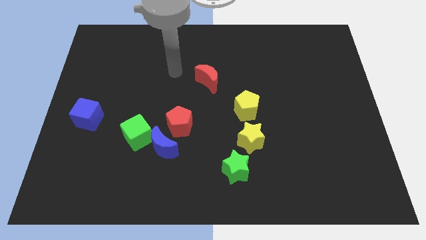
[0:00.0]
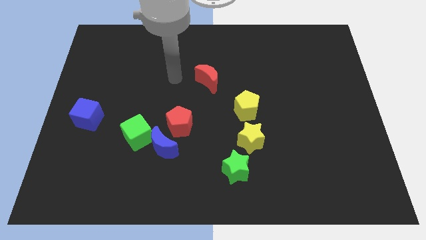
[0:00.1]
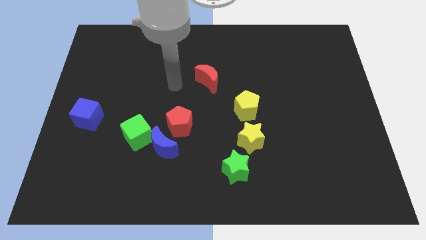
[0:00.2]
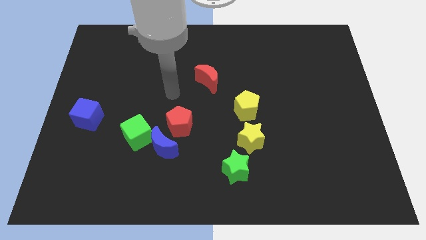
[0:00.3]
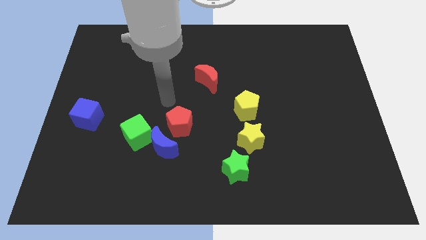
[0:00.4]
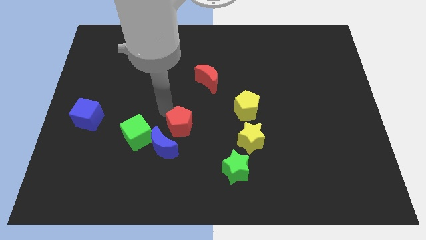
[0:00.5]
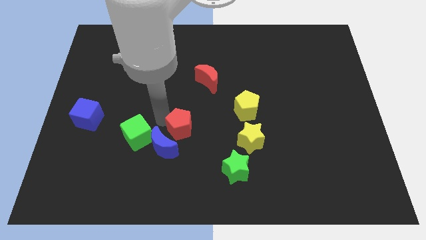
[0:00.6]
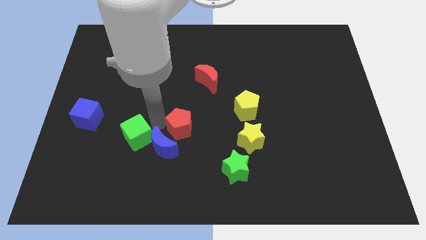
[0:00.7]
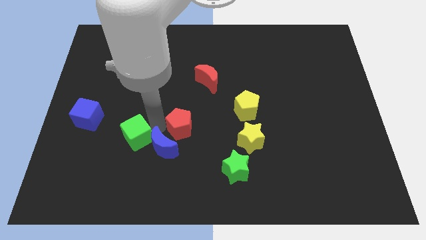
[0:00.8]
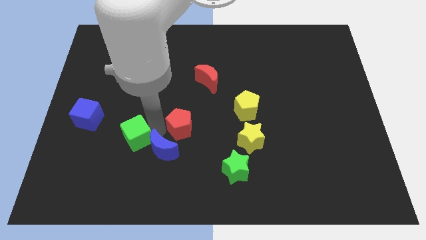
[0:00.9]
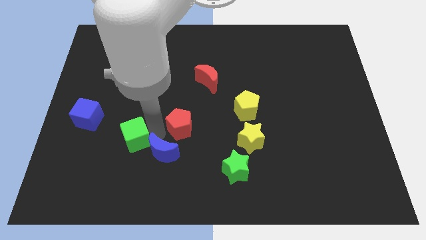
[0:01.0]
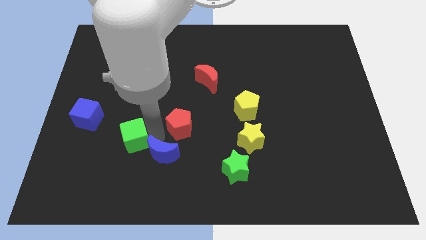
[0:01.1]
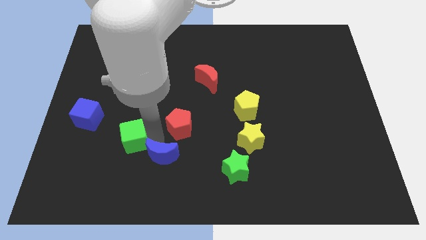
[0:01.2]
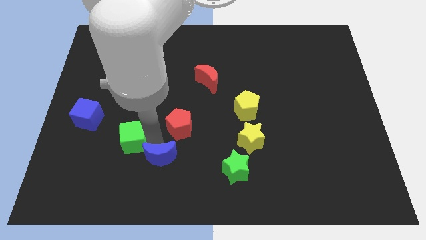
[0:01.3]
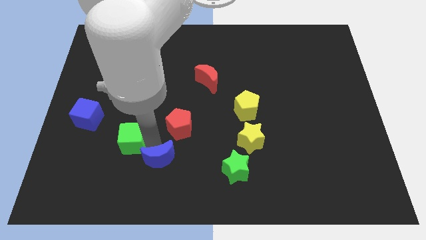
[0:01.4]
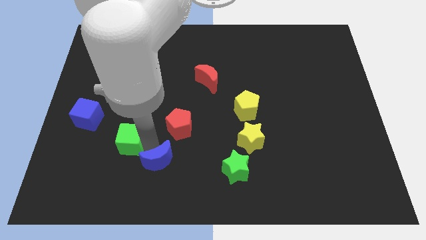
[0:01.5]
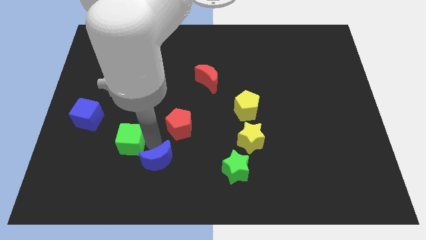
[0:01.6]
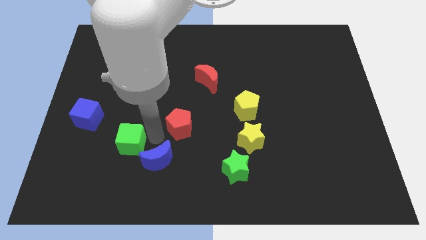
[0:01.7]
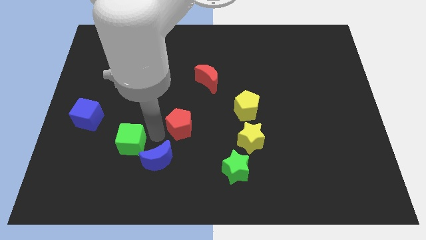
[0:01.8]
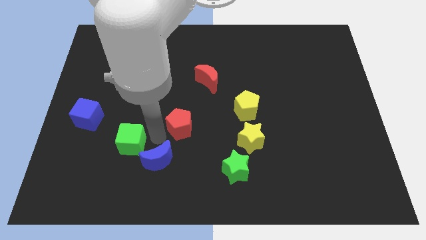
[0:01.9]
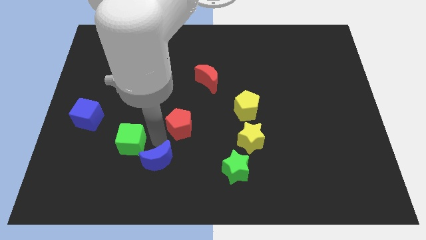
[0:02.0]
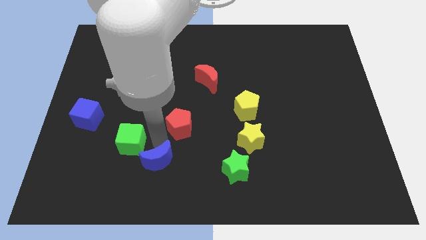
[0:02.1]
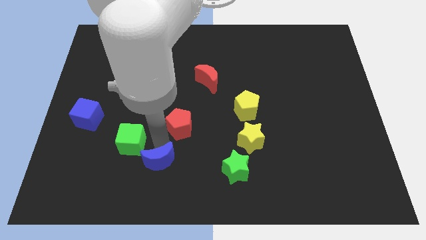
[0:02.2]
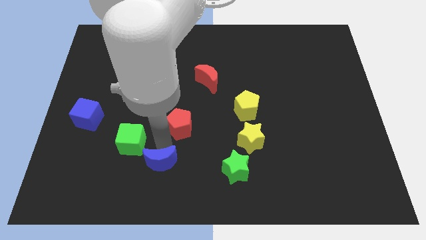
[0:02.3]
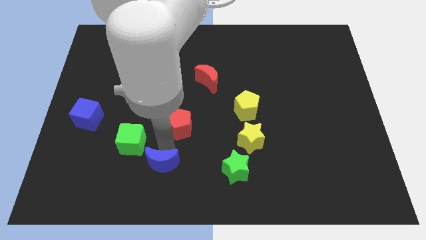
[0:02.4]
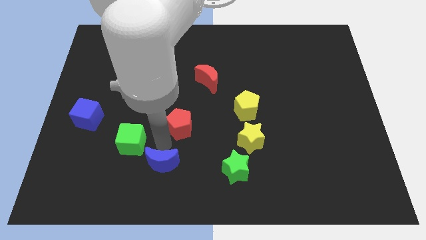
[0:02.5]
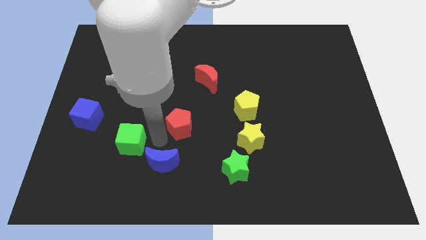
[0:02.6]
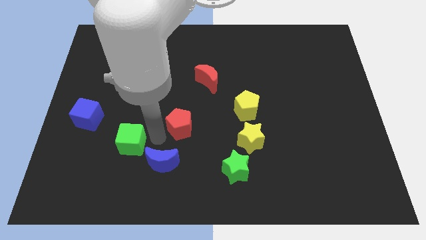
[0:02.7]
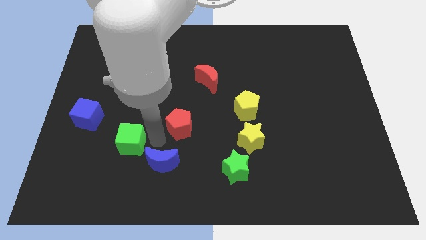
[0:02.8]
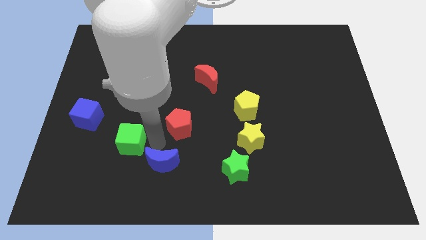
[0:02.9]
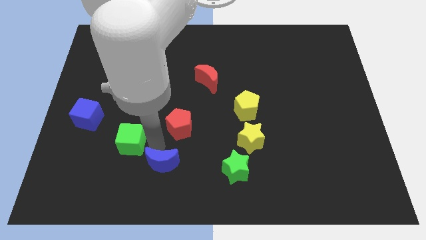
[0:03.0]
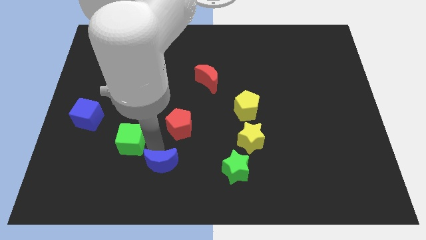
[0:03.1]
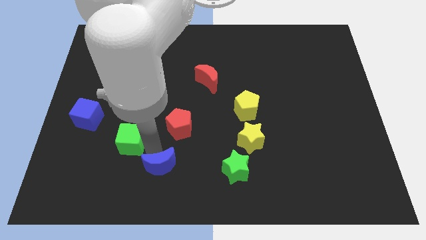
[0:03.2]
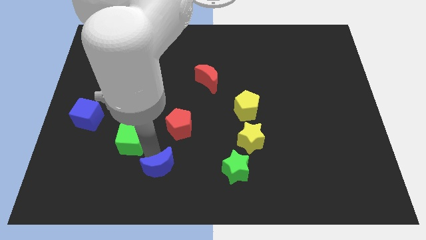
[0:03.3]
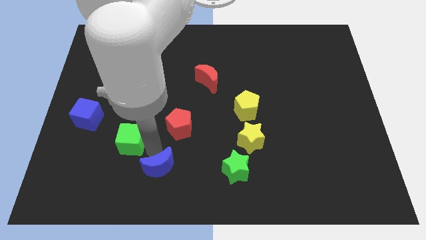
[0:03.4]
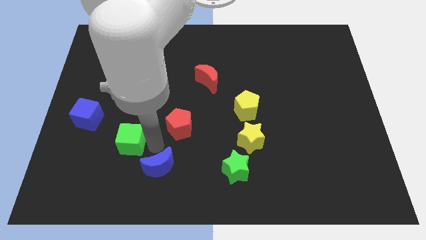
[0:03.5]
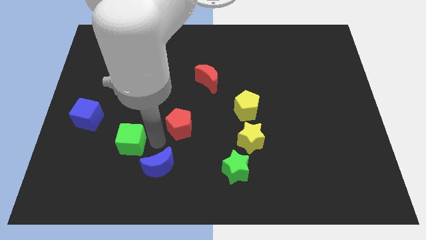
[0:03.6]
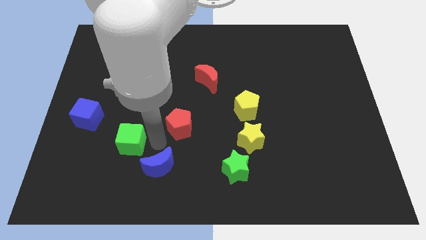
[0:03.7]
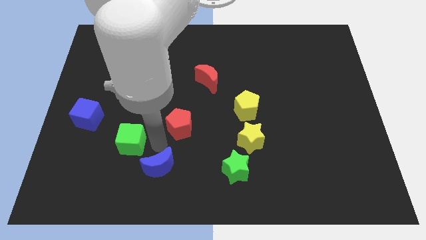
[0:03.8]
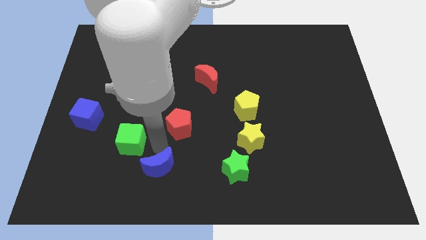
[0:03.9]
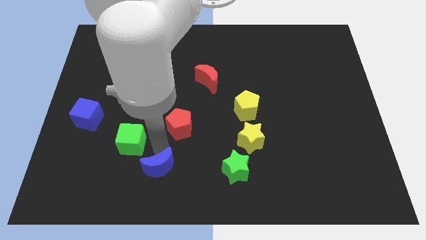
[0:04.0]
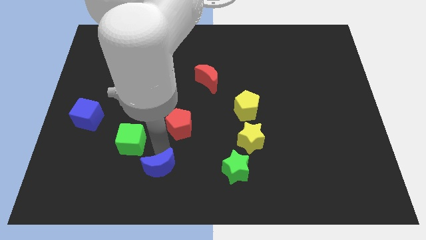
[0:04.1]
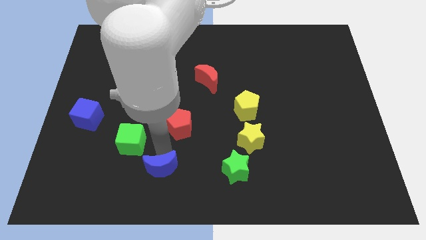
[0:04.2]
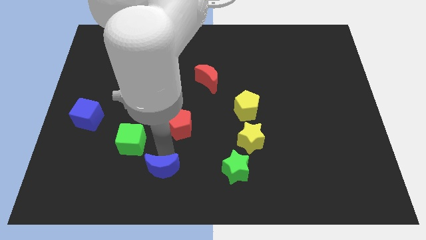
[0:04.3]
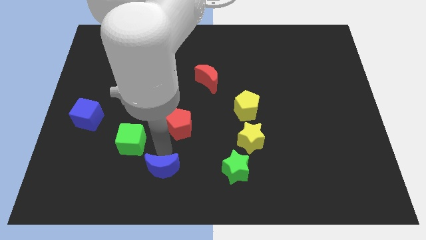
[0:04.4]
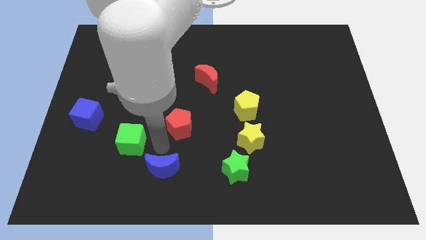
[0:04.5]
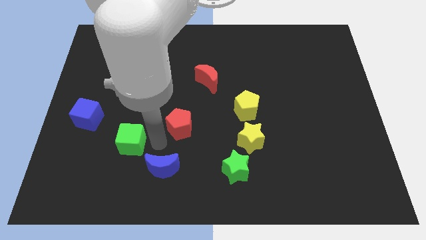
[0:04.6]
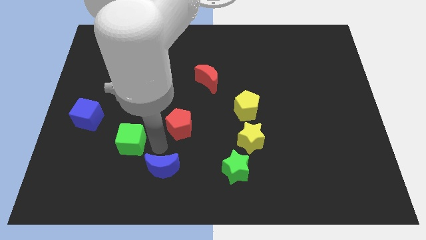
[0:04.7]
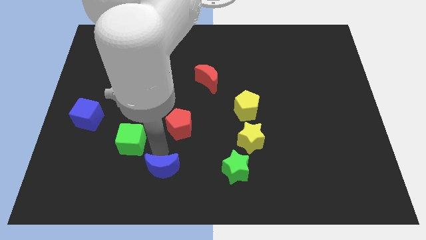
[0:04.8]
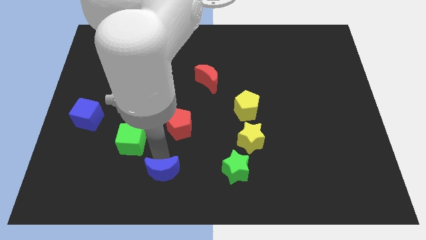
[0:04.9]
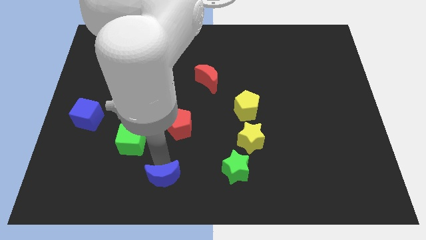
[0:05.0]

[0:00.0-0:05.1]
pull the blue moon apart from the green cube and red pentagon

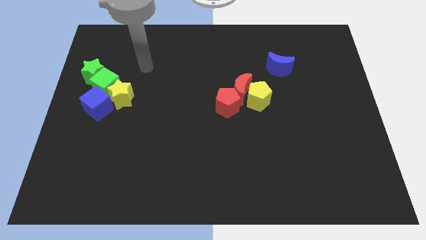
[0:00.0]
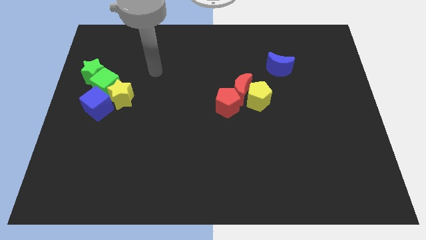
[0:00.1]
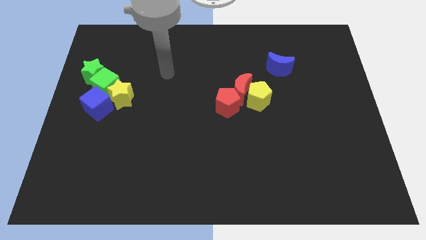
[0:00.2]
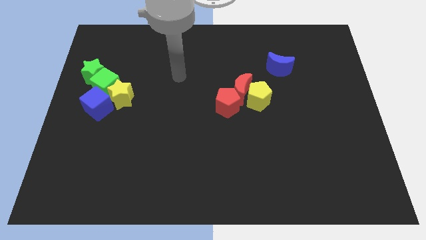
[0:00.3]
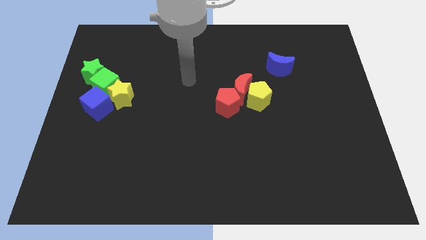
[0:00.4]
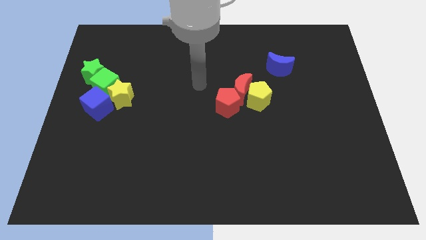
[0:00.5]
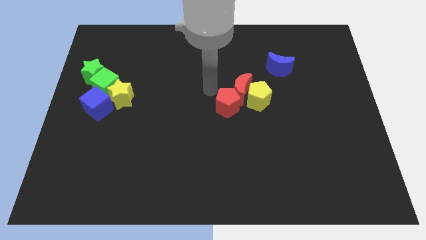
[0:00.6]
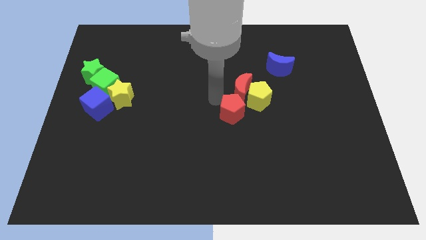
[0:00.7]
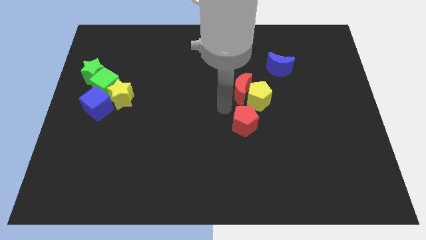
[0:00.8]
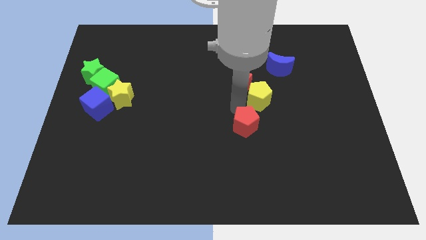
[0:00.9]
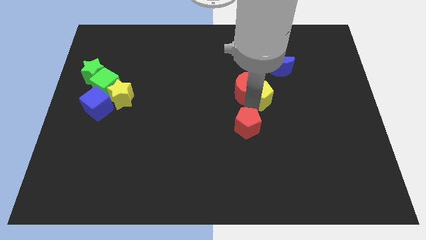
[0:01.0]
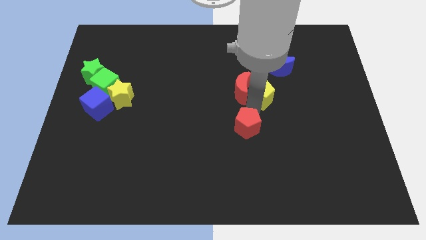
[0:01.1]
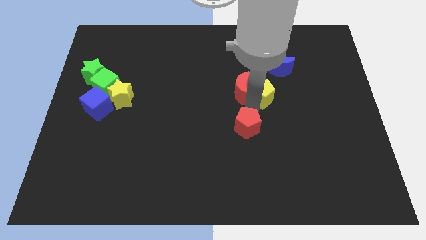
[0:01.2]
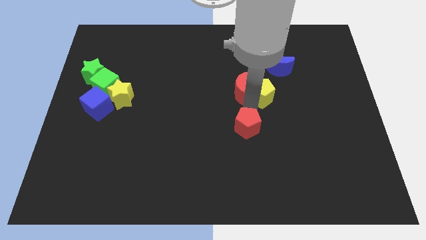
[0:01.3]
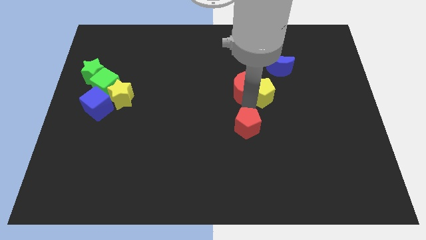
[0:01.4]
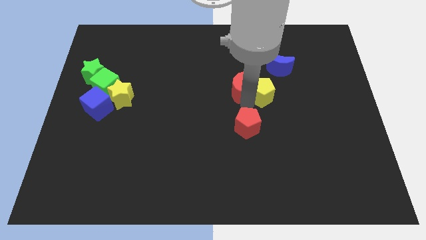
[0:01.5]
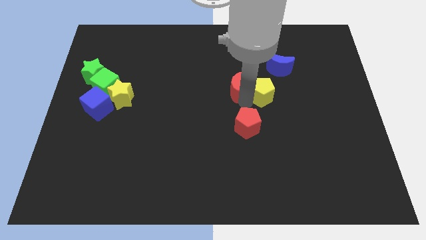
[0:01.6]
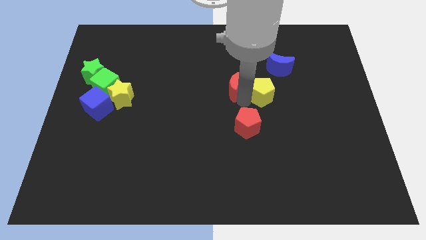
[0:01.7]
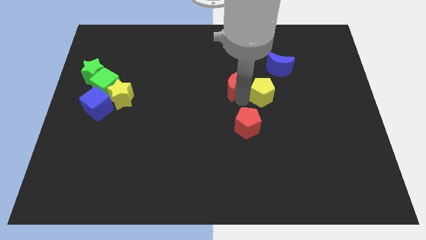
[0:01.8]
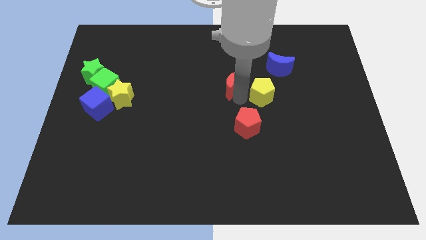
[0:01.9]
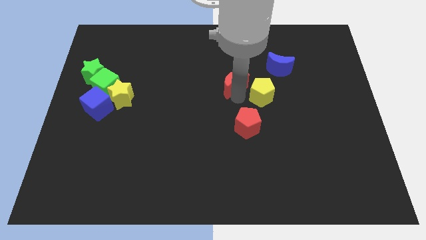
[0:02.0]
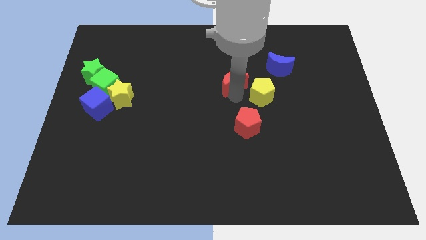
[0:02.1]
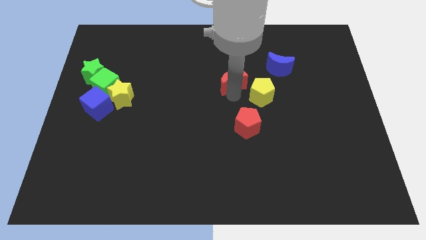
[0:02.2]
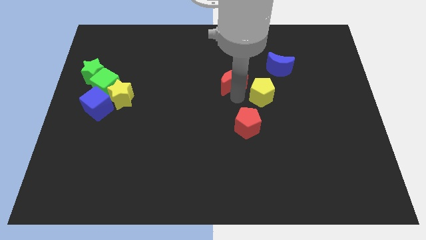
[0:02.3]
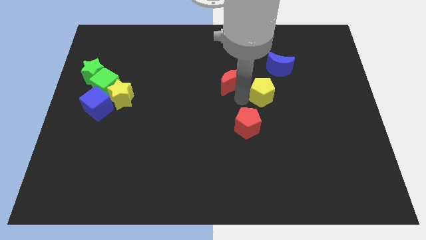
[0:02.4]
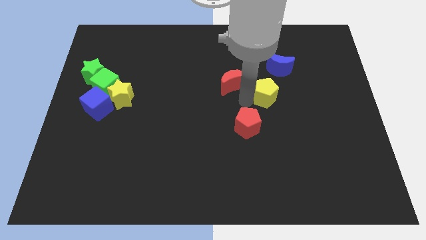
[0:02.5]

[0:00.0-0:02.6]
pull the red moon apart from the yellow pentagon and red pentagon

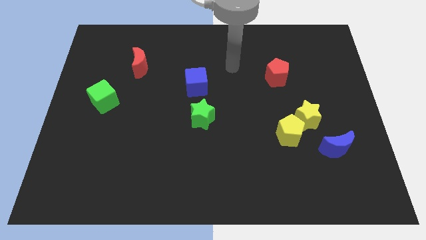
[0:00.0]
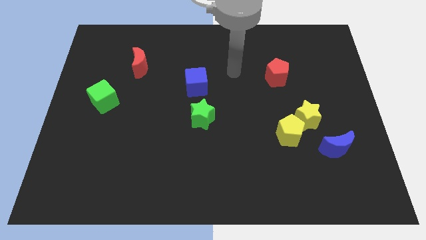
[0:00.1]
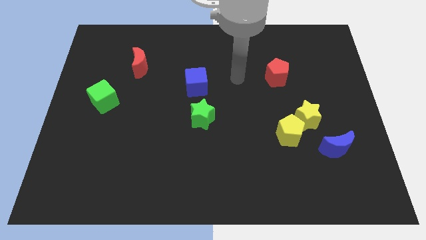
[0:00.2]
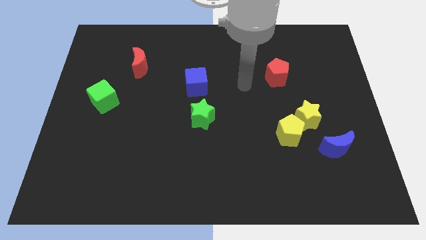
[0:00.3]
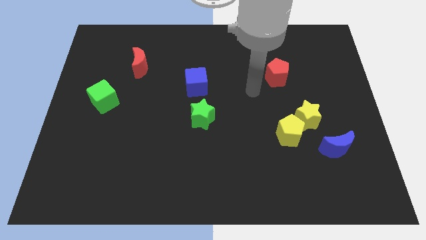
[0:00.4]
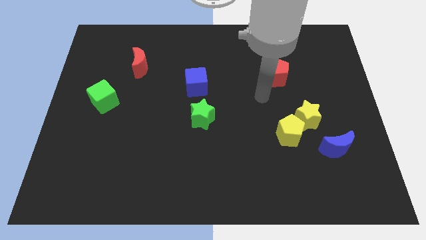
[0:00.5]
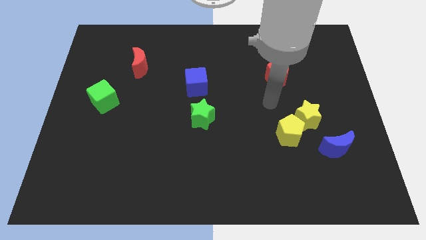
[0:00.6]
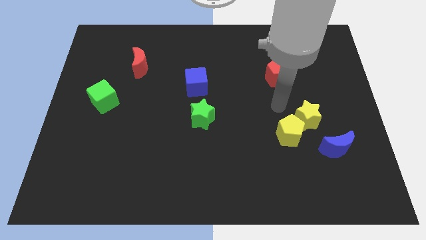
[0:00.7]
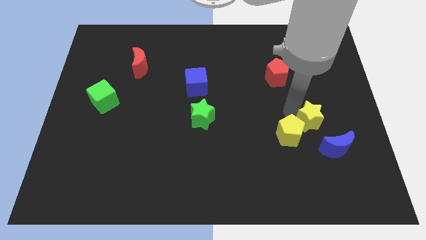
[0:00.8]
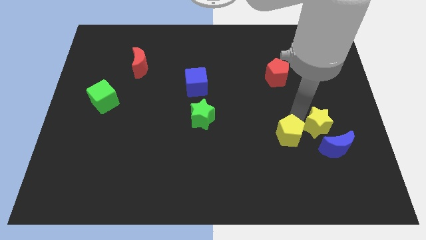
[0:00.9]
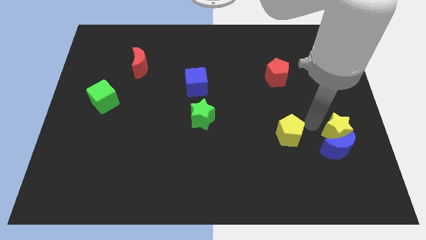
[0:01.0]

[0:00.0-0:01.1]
move the yellow pentagon away from the yellow star

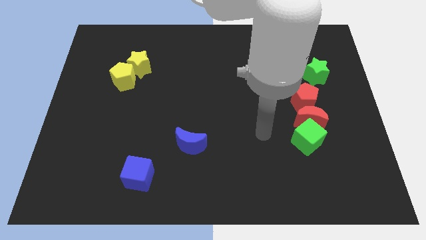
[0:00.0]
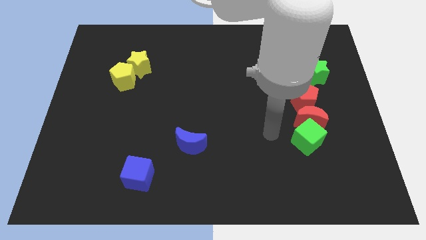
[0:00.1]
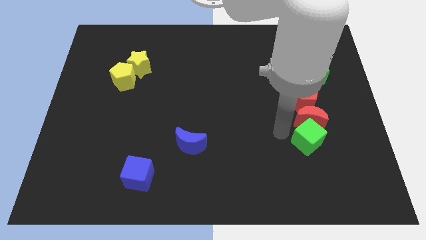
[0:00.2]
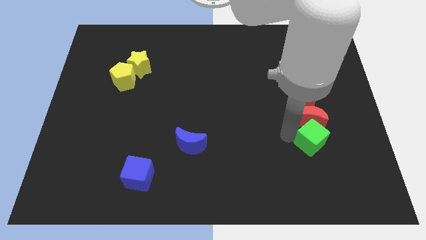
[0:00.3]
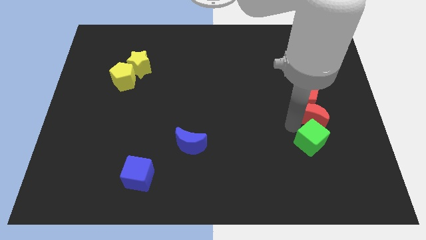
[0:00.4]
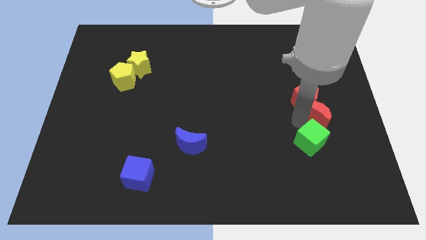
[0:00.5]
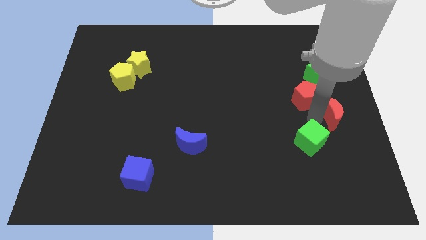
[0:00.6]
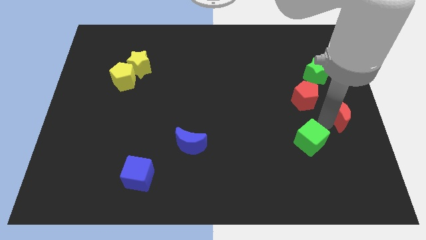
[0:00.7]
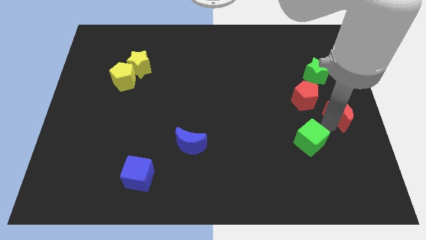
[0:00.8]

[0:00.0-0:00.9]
separate the green cube from the red moon
